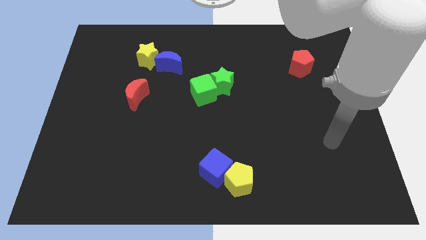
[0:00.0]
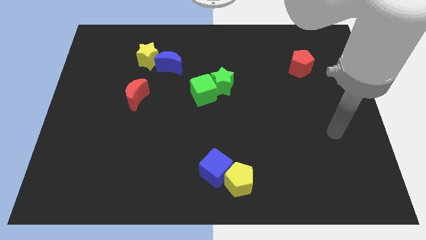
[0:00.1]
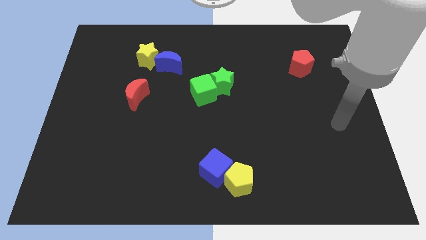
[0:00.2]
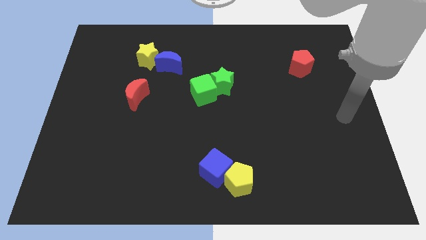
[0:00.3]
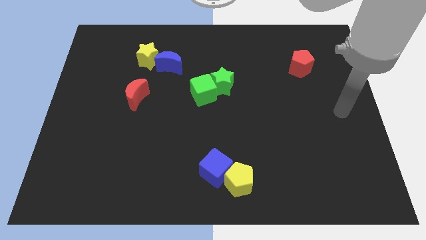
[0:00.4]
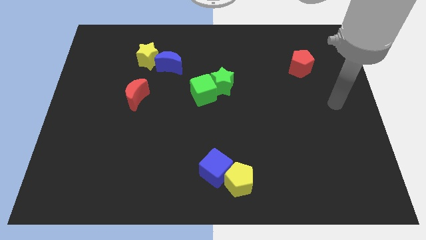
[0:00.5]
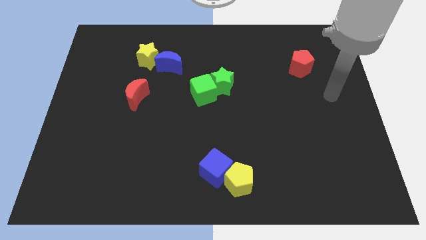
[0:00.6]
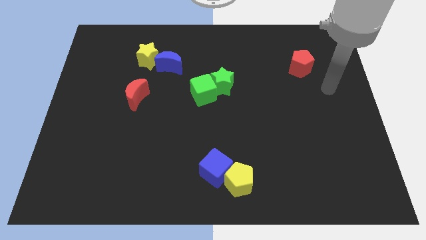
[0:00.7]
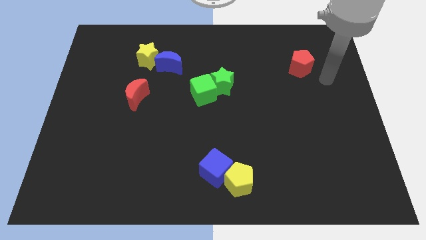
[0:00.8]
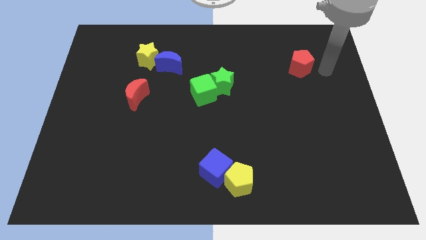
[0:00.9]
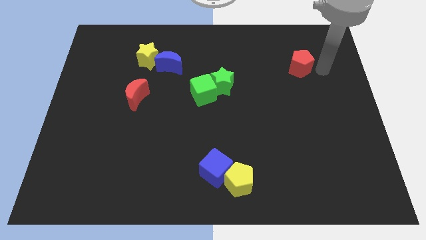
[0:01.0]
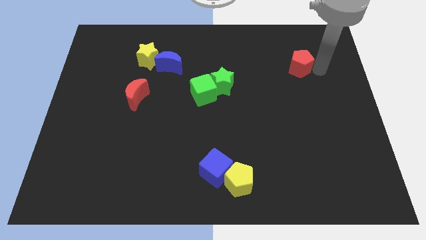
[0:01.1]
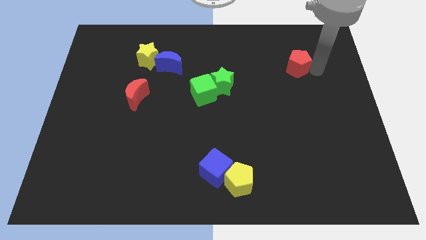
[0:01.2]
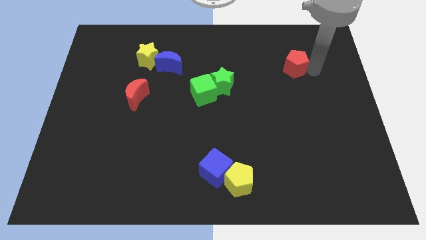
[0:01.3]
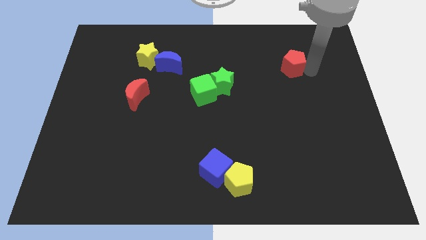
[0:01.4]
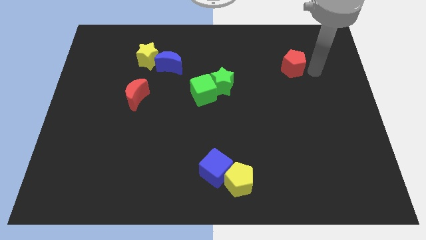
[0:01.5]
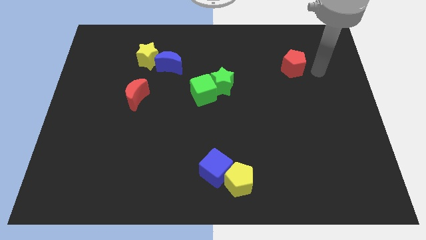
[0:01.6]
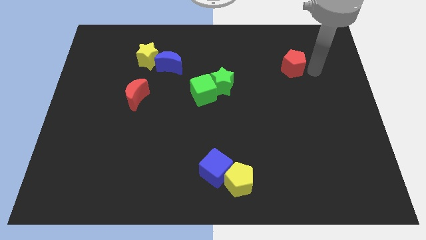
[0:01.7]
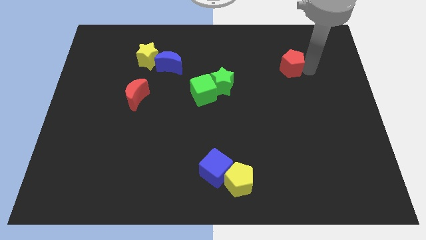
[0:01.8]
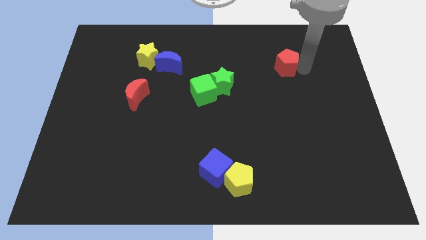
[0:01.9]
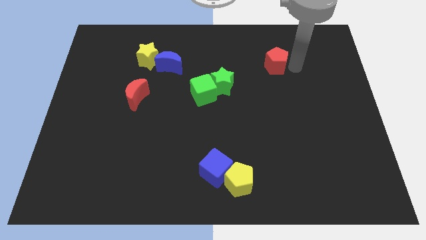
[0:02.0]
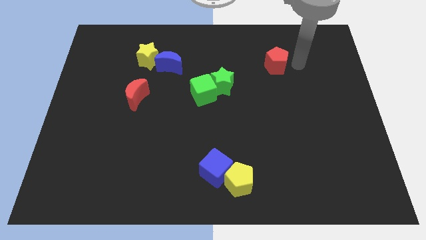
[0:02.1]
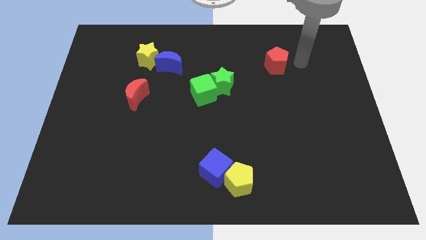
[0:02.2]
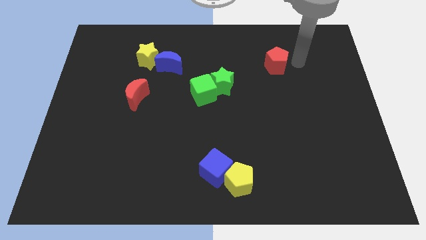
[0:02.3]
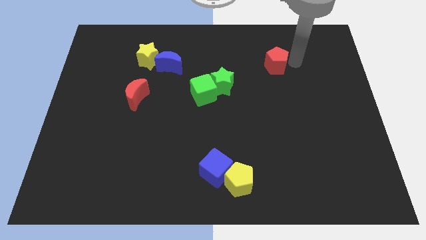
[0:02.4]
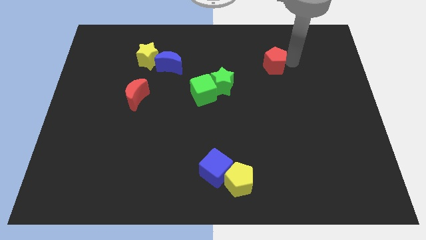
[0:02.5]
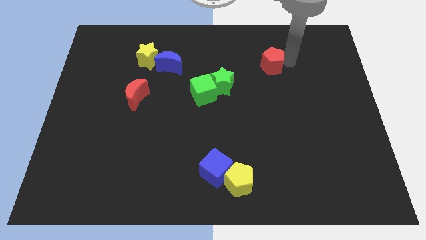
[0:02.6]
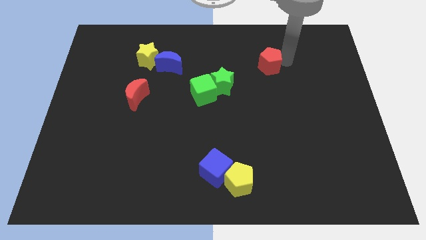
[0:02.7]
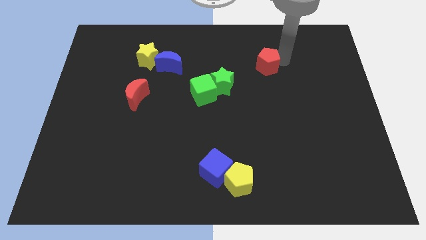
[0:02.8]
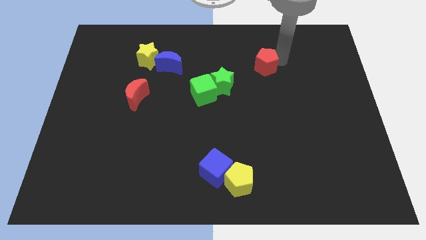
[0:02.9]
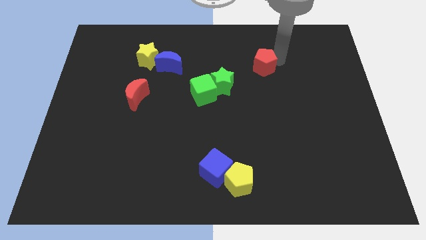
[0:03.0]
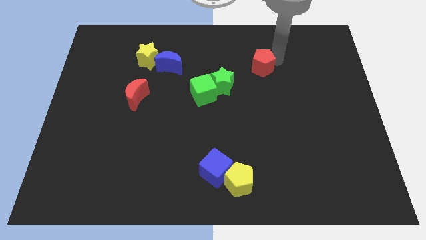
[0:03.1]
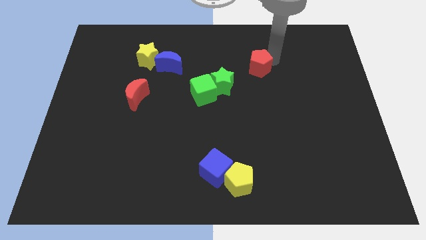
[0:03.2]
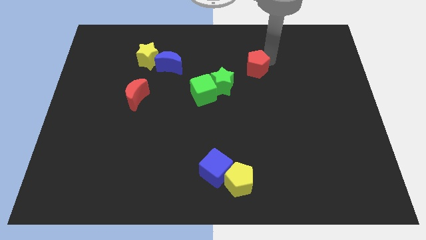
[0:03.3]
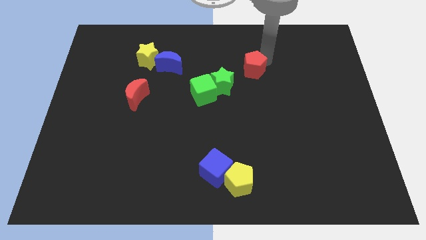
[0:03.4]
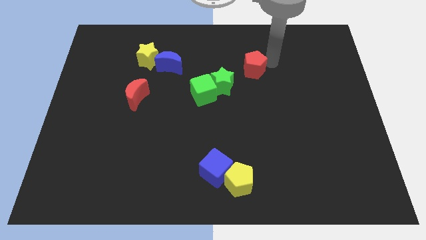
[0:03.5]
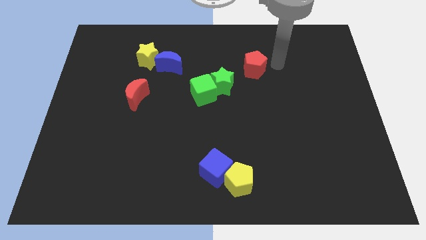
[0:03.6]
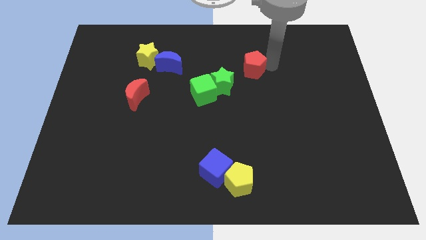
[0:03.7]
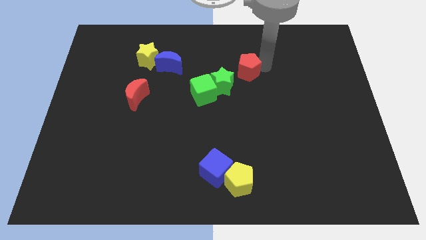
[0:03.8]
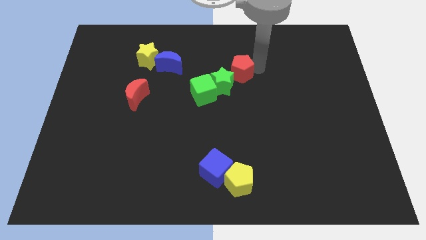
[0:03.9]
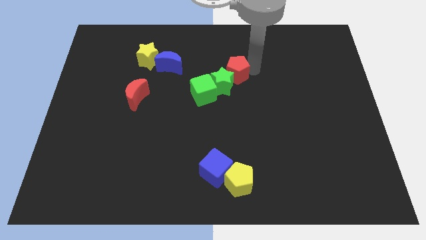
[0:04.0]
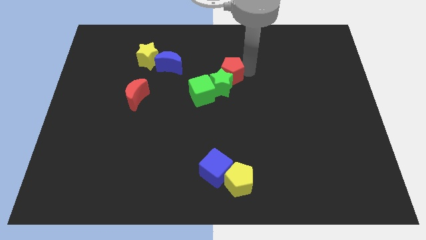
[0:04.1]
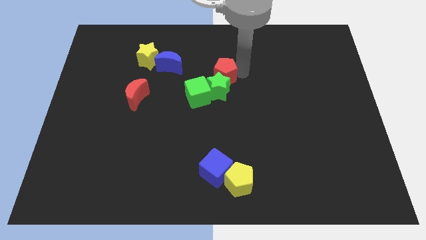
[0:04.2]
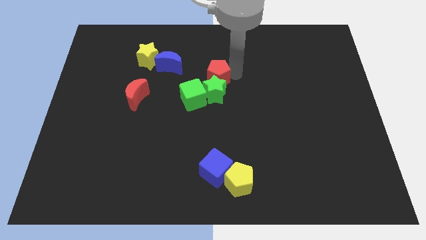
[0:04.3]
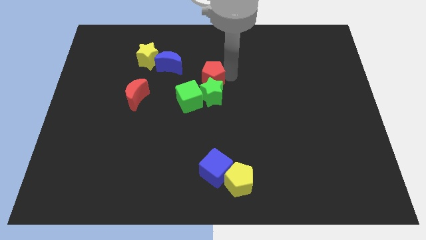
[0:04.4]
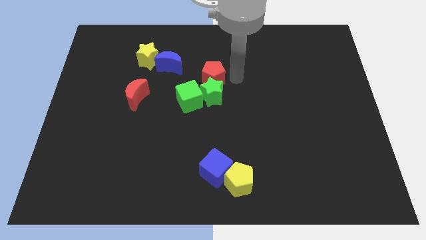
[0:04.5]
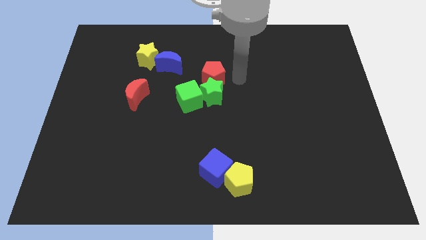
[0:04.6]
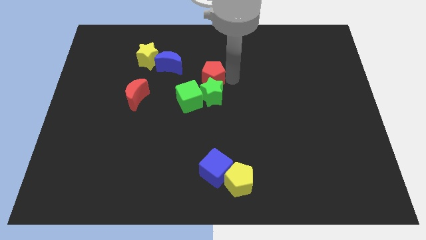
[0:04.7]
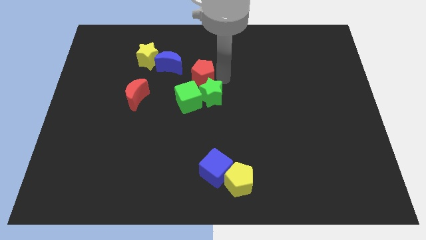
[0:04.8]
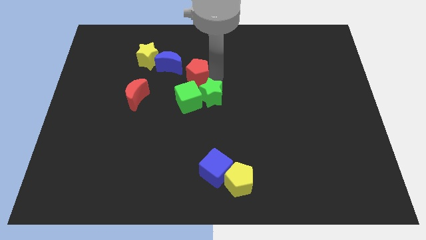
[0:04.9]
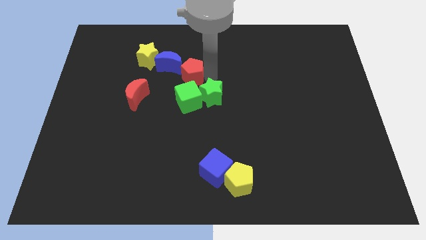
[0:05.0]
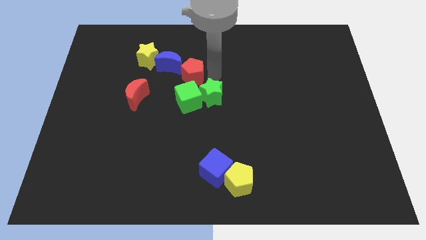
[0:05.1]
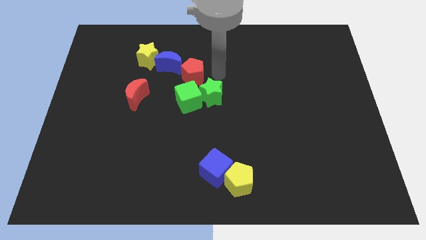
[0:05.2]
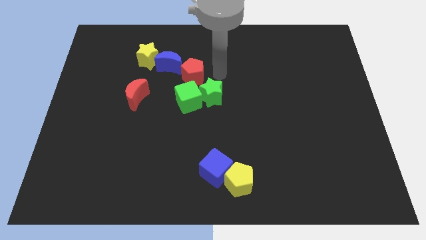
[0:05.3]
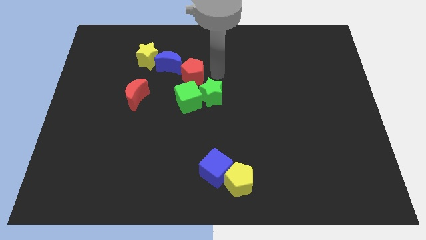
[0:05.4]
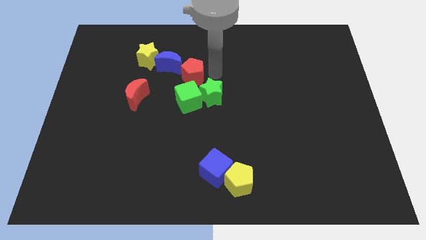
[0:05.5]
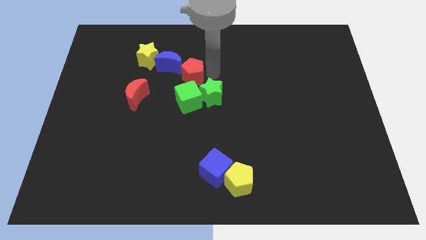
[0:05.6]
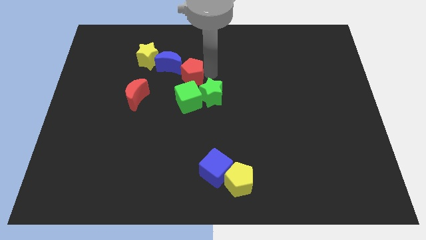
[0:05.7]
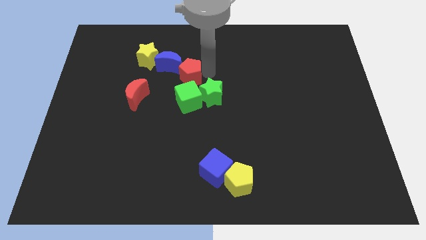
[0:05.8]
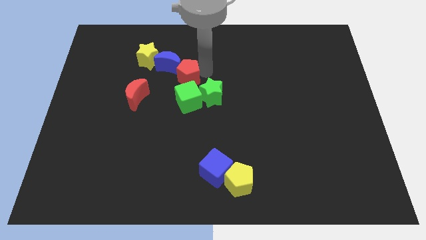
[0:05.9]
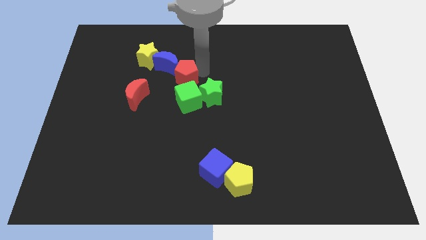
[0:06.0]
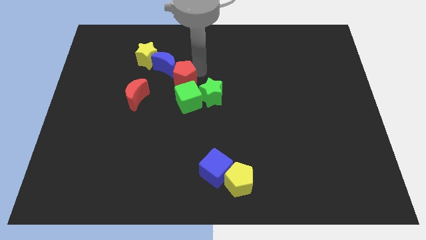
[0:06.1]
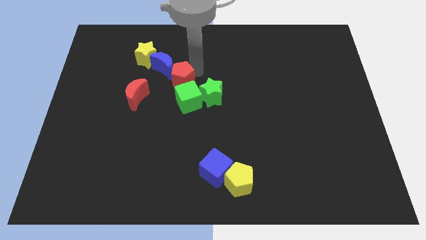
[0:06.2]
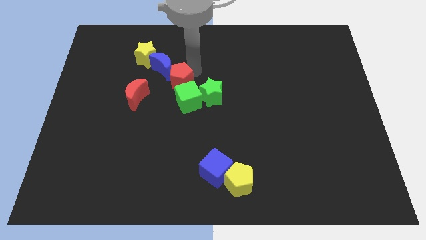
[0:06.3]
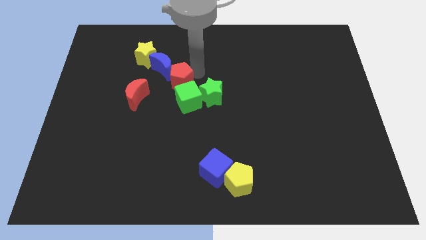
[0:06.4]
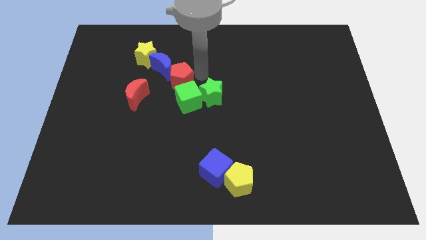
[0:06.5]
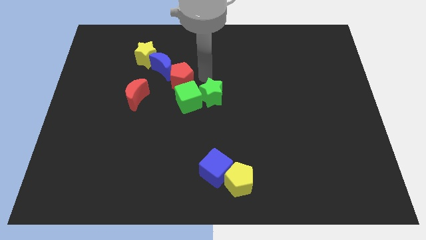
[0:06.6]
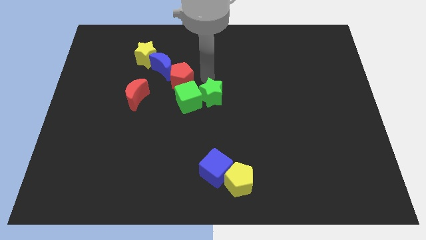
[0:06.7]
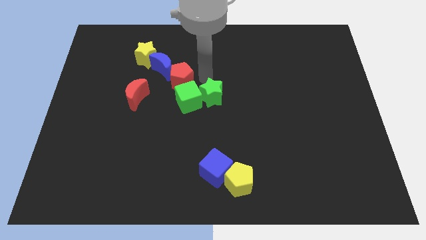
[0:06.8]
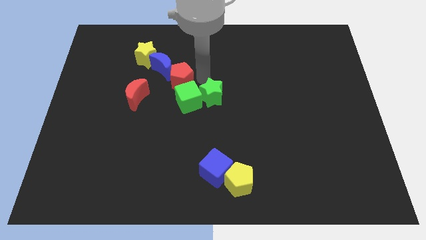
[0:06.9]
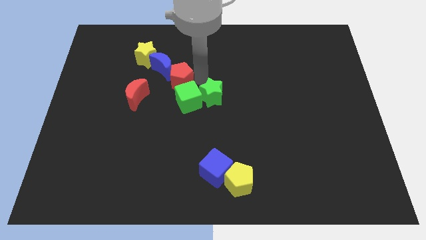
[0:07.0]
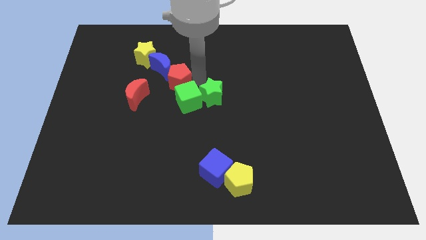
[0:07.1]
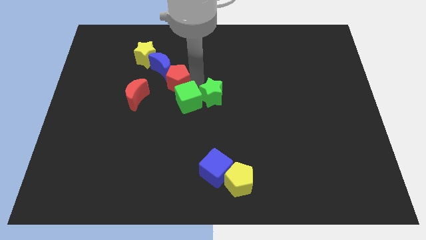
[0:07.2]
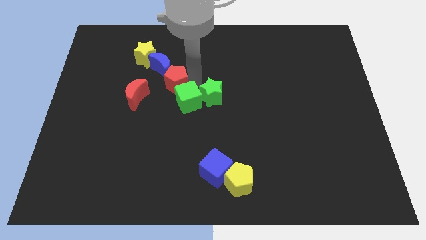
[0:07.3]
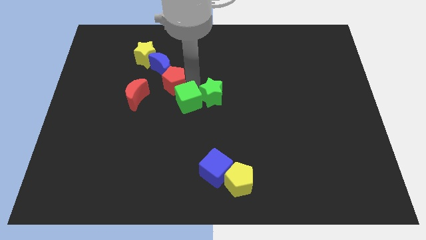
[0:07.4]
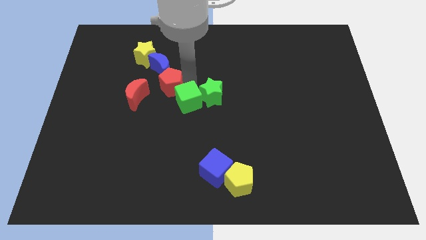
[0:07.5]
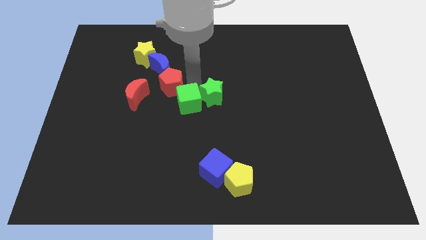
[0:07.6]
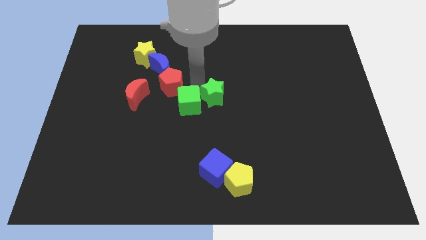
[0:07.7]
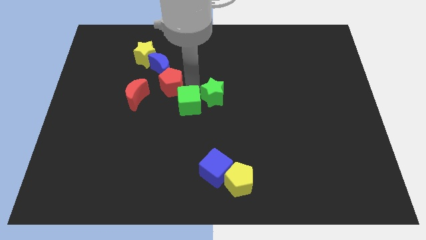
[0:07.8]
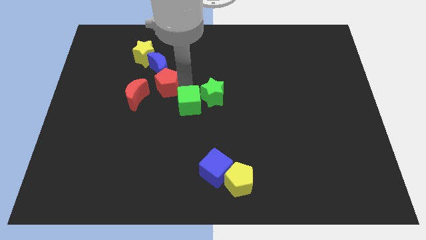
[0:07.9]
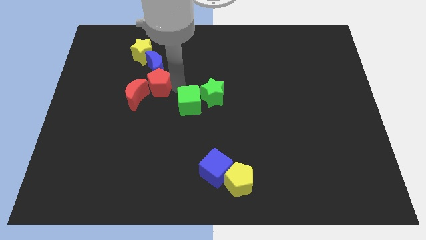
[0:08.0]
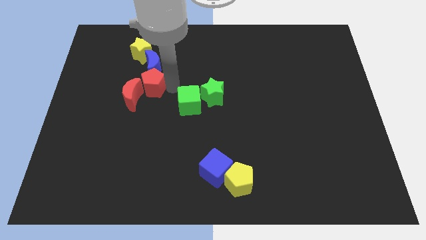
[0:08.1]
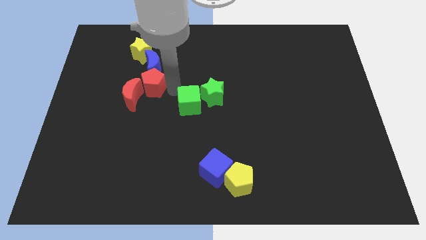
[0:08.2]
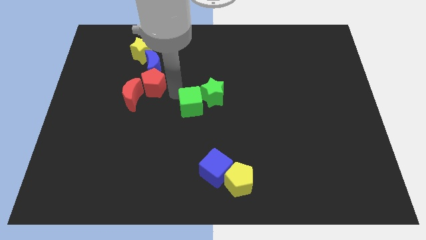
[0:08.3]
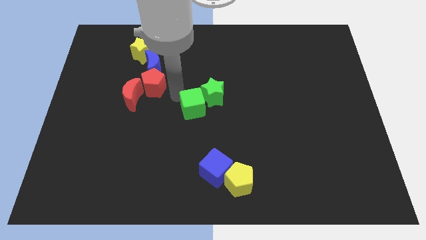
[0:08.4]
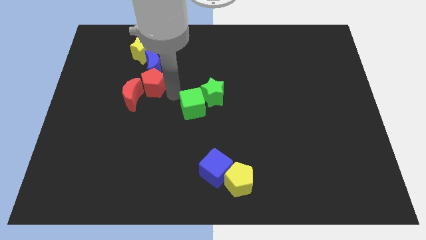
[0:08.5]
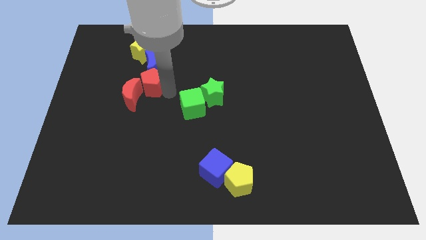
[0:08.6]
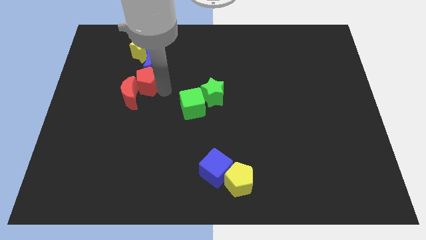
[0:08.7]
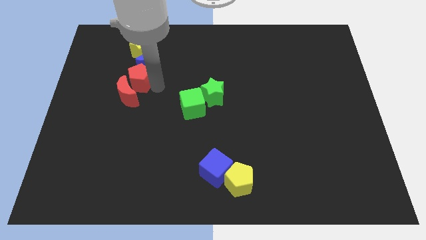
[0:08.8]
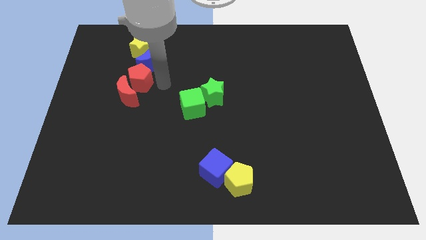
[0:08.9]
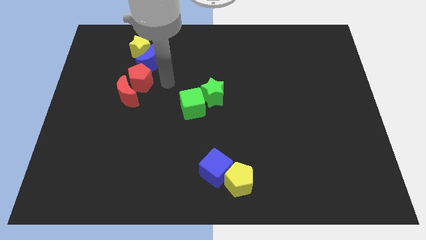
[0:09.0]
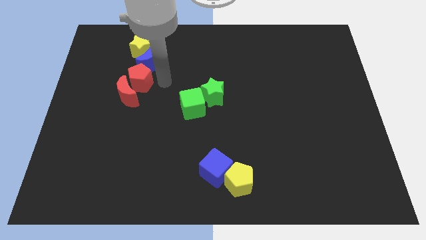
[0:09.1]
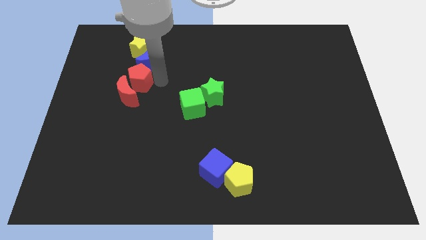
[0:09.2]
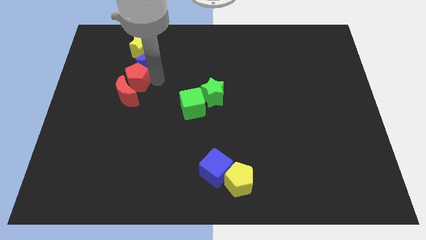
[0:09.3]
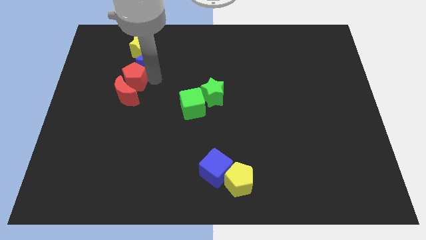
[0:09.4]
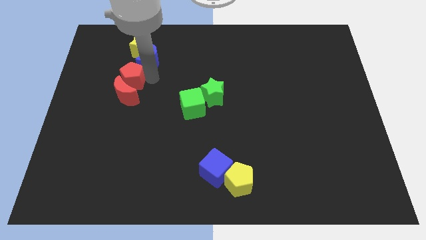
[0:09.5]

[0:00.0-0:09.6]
push the red pentagon diagonally up and to the left of the red moon
